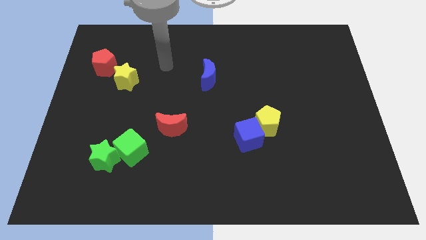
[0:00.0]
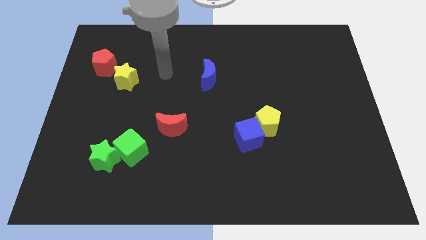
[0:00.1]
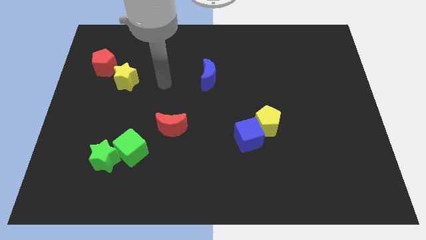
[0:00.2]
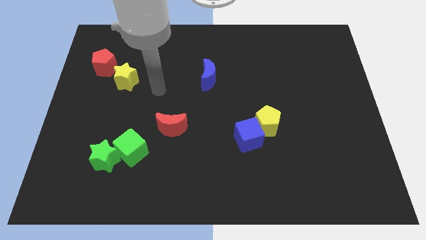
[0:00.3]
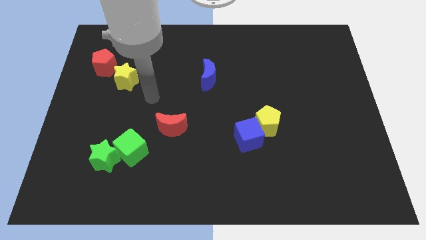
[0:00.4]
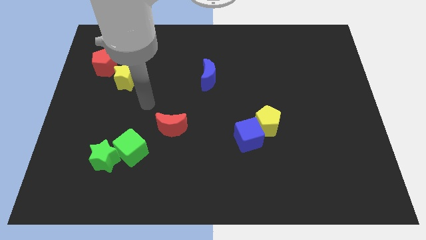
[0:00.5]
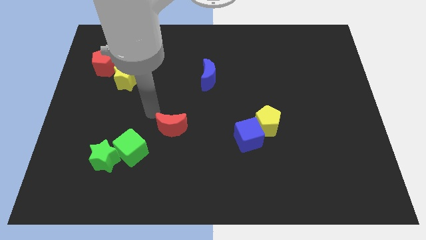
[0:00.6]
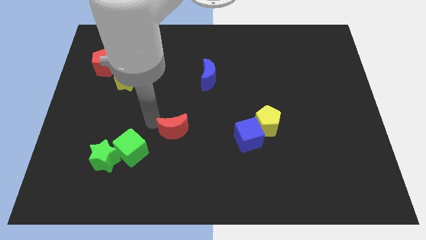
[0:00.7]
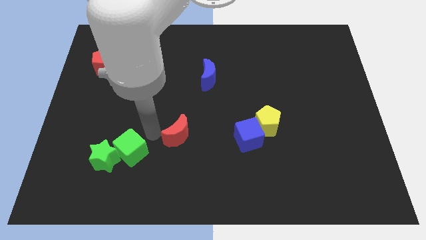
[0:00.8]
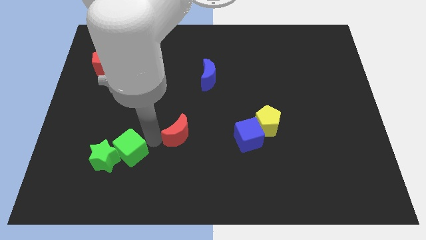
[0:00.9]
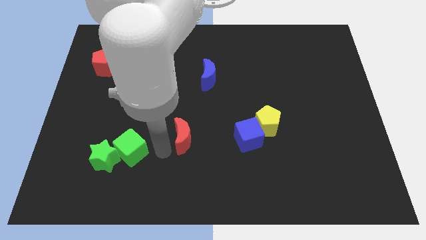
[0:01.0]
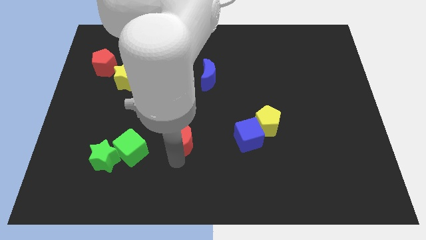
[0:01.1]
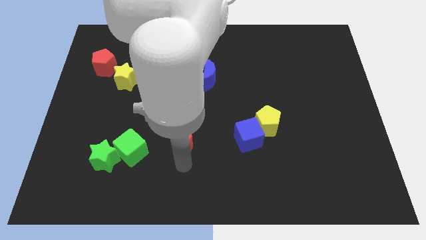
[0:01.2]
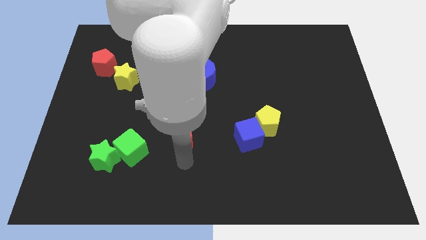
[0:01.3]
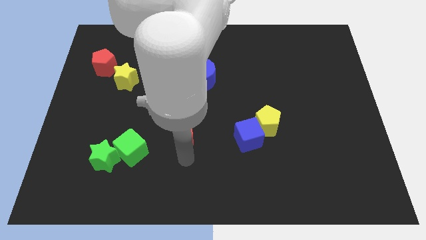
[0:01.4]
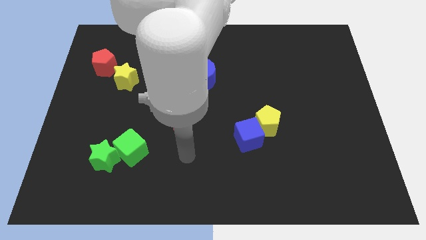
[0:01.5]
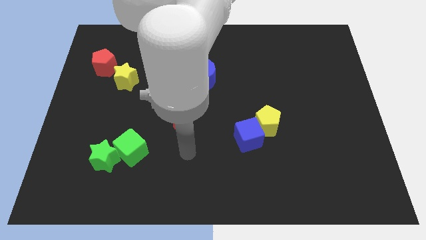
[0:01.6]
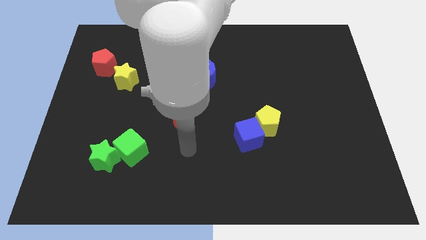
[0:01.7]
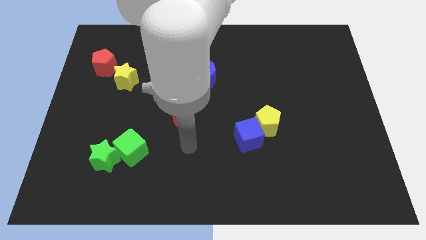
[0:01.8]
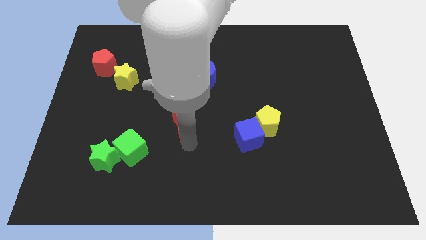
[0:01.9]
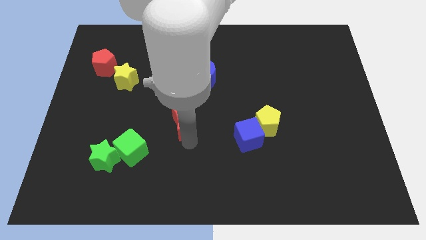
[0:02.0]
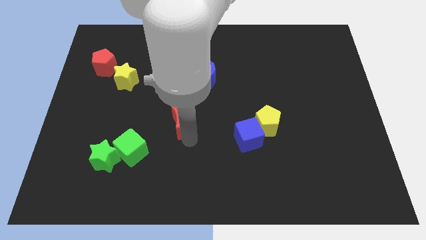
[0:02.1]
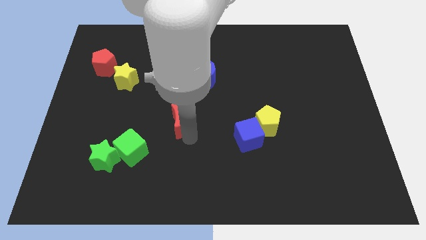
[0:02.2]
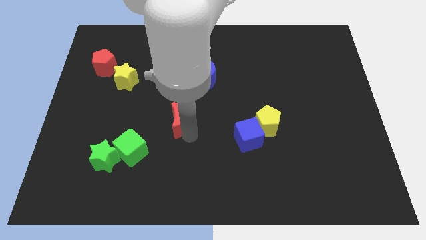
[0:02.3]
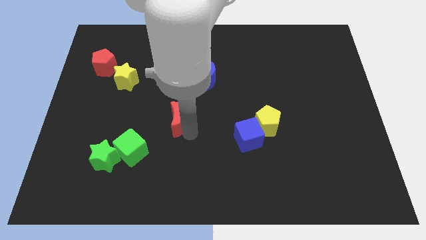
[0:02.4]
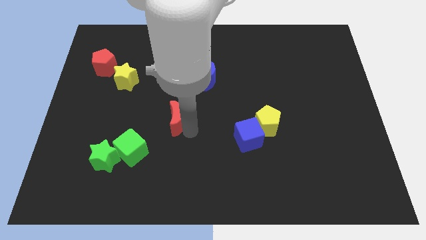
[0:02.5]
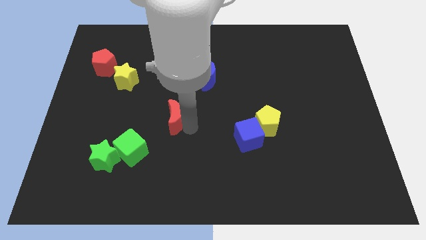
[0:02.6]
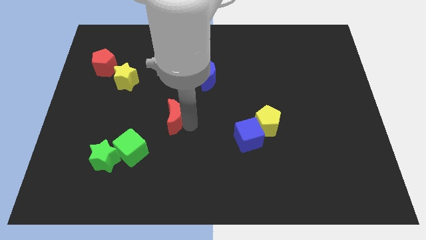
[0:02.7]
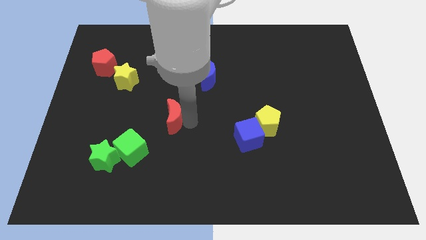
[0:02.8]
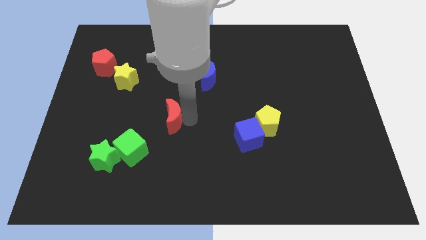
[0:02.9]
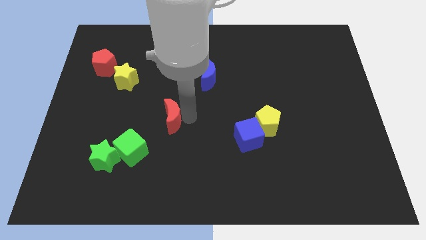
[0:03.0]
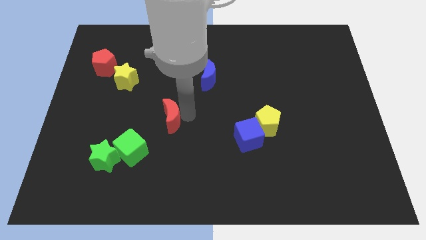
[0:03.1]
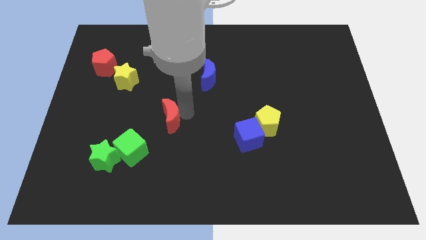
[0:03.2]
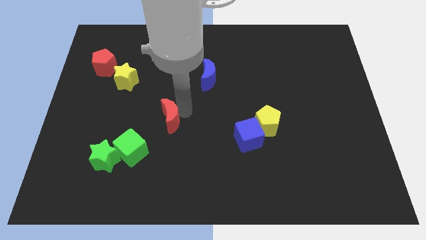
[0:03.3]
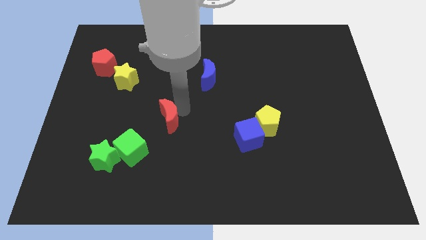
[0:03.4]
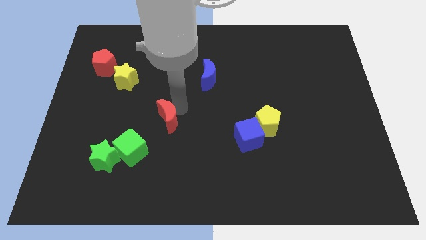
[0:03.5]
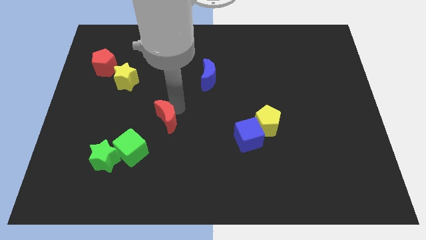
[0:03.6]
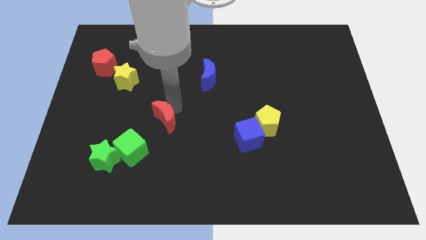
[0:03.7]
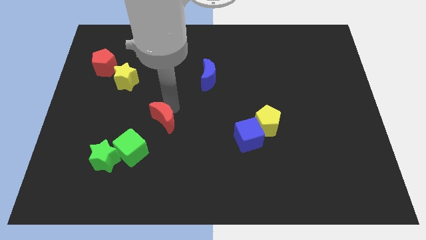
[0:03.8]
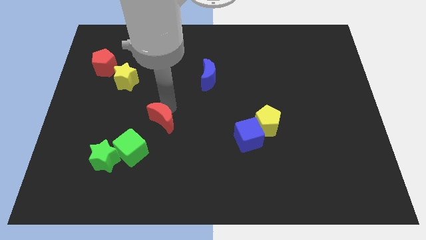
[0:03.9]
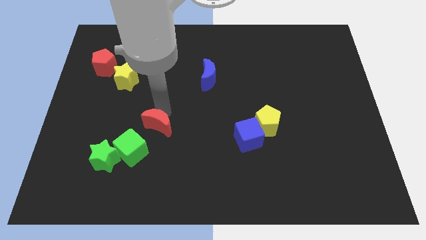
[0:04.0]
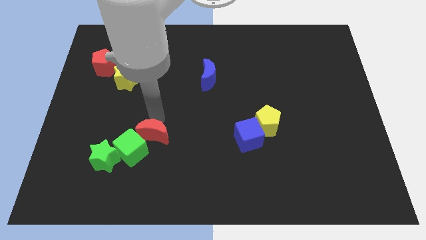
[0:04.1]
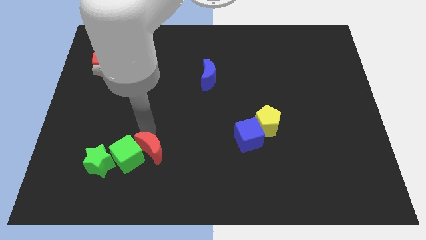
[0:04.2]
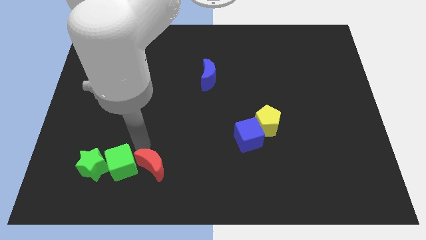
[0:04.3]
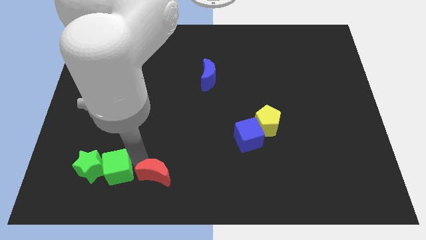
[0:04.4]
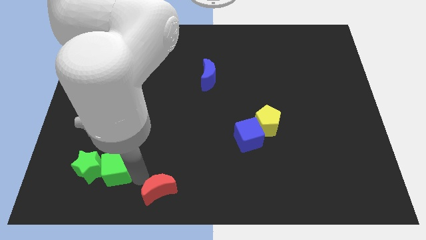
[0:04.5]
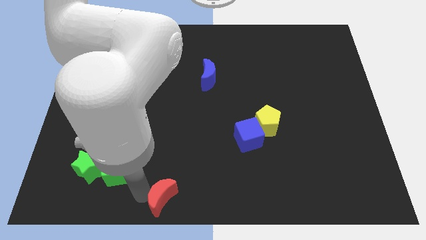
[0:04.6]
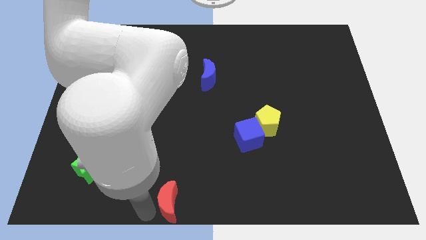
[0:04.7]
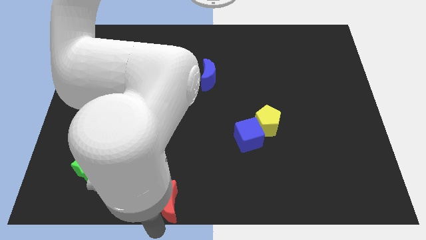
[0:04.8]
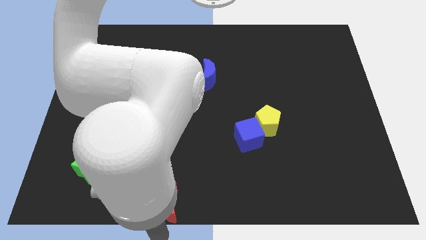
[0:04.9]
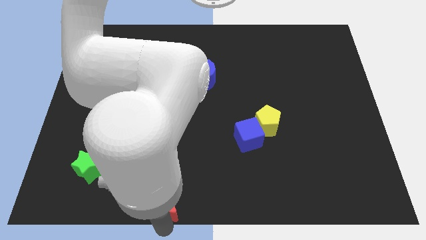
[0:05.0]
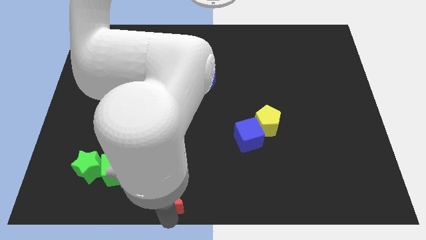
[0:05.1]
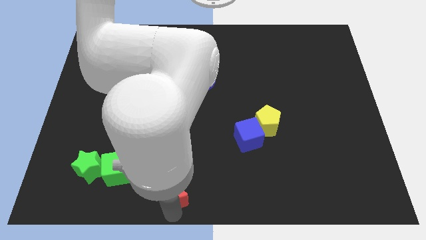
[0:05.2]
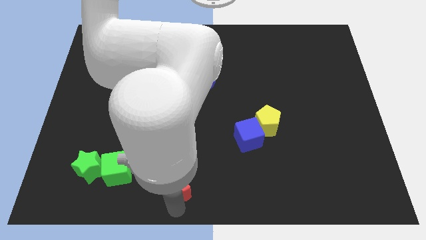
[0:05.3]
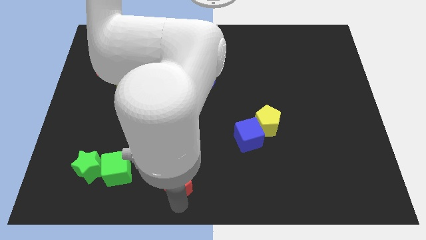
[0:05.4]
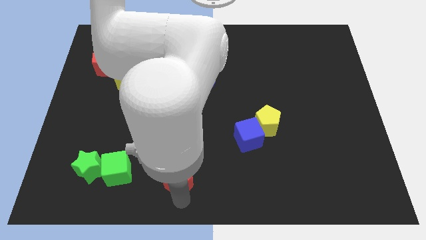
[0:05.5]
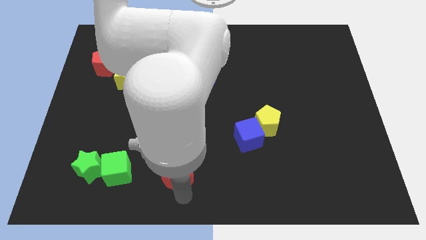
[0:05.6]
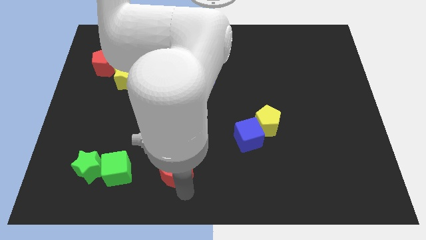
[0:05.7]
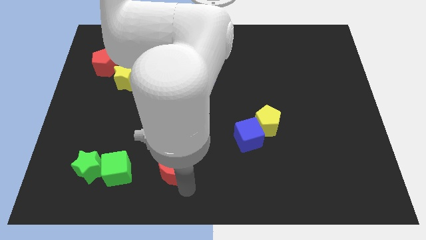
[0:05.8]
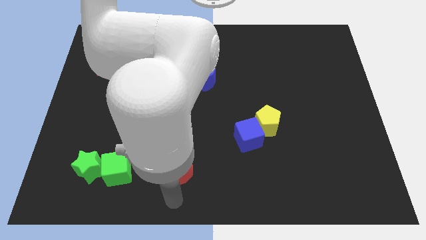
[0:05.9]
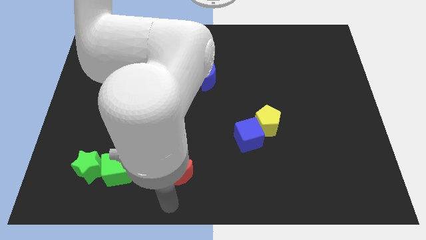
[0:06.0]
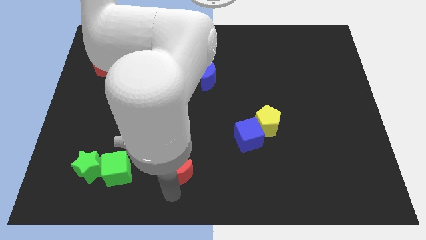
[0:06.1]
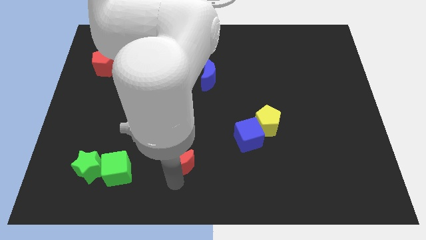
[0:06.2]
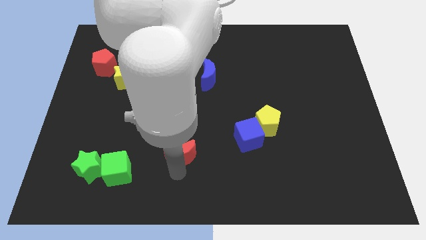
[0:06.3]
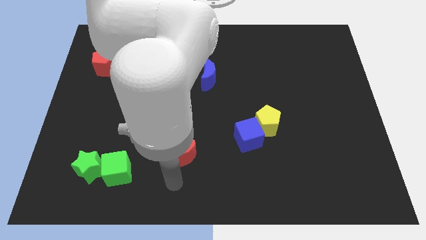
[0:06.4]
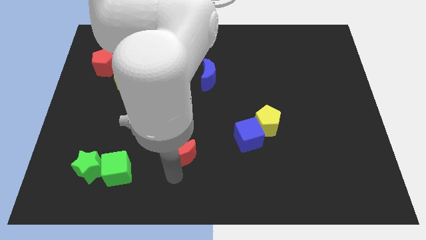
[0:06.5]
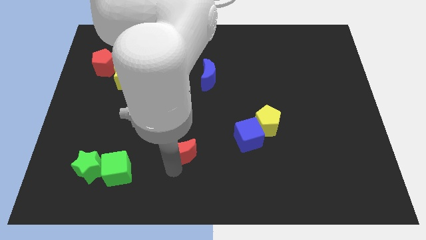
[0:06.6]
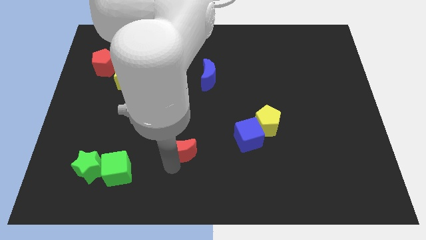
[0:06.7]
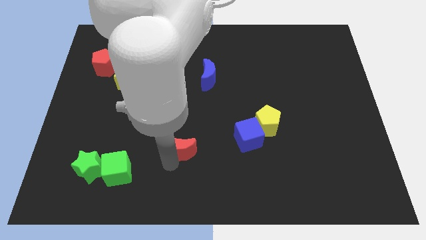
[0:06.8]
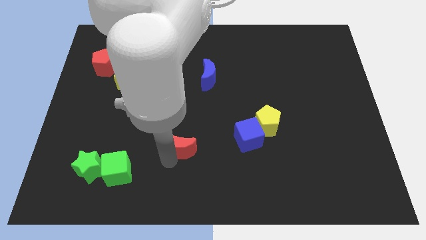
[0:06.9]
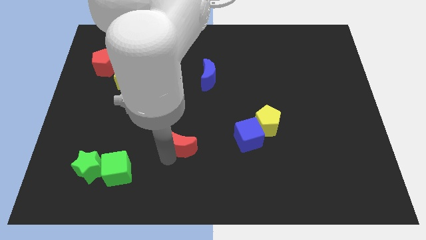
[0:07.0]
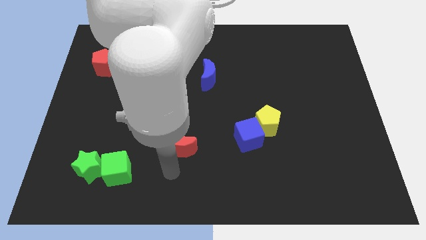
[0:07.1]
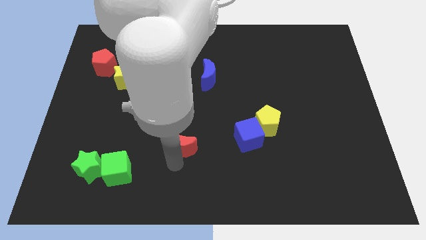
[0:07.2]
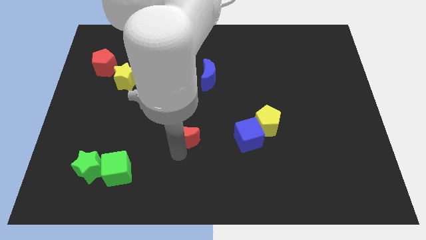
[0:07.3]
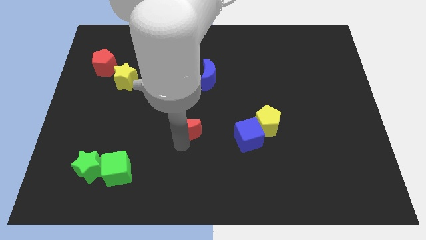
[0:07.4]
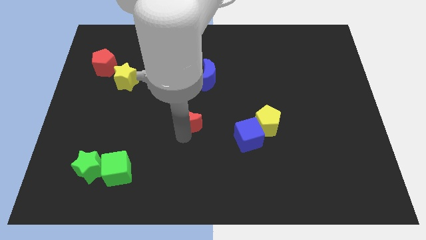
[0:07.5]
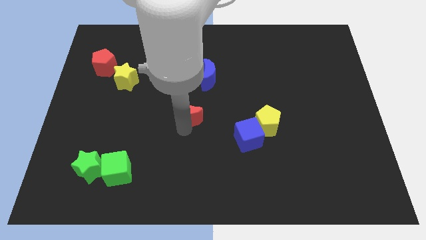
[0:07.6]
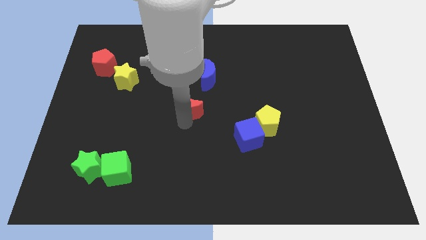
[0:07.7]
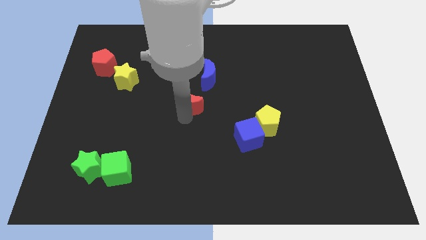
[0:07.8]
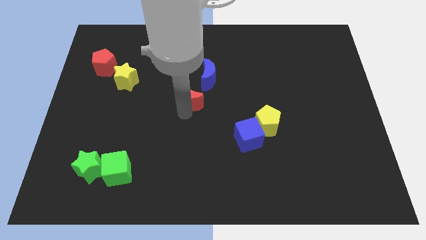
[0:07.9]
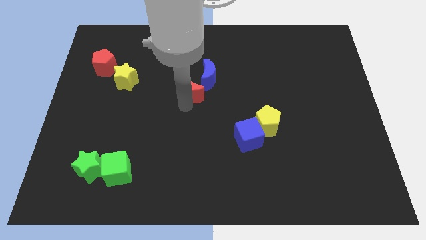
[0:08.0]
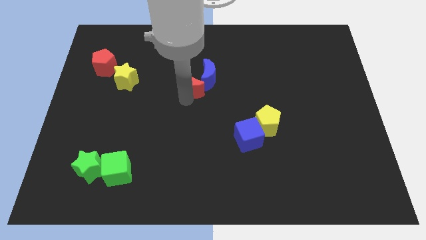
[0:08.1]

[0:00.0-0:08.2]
slide the red moon close to the blue moon
